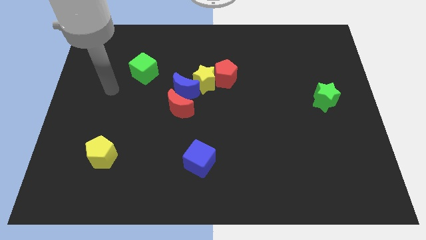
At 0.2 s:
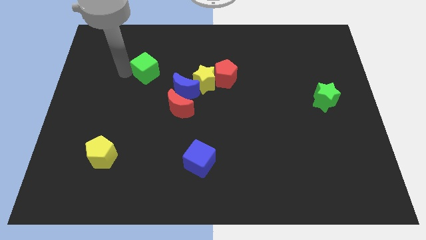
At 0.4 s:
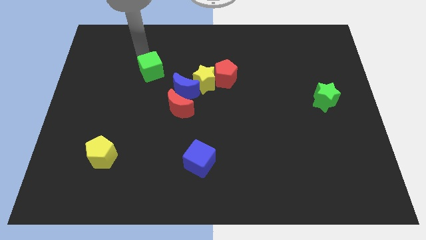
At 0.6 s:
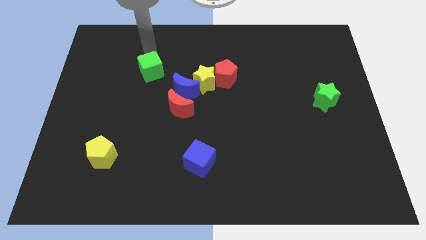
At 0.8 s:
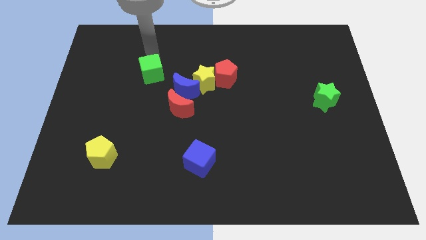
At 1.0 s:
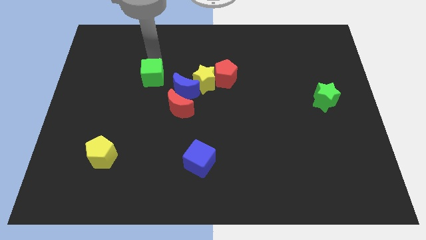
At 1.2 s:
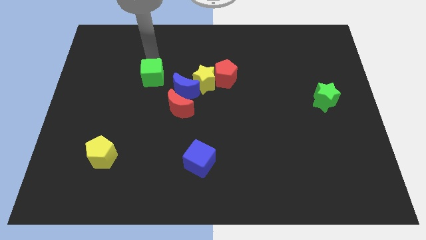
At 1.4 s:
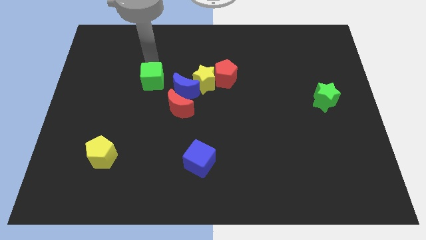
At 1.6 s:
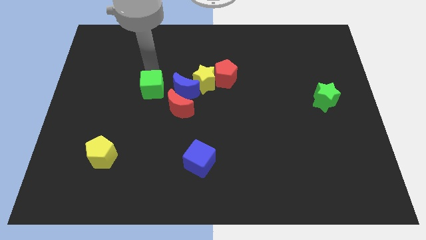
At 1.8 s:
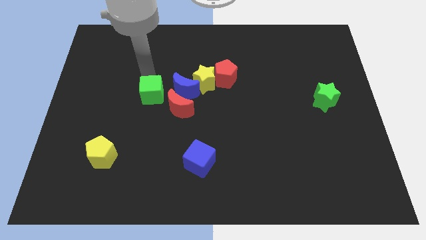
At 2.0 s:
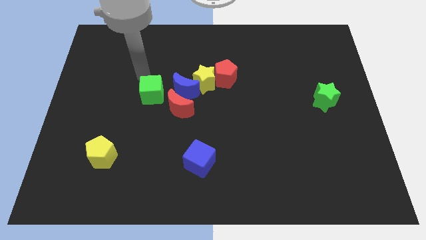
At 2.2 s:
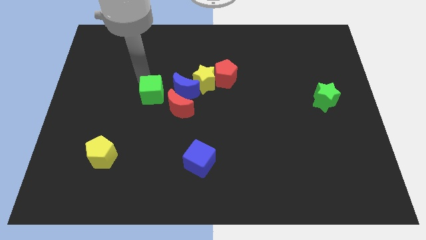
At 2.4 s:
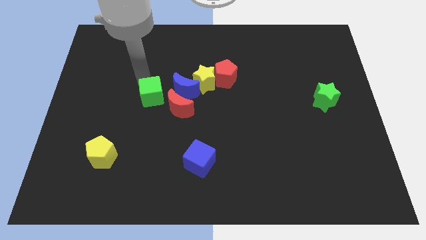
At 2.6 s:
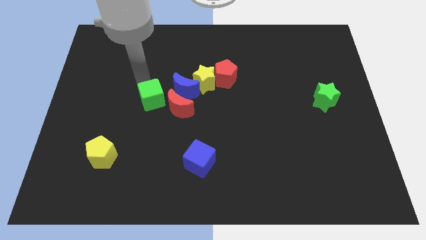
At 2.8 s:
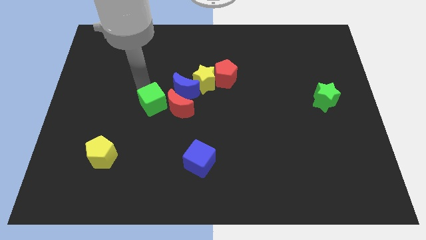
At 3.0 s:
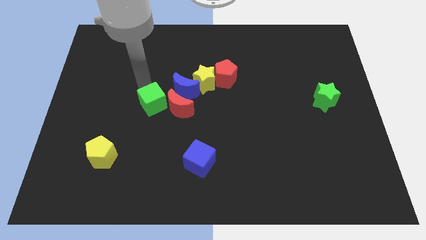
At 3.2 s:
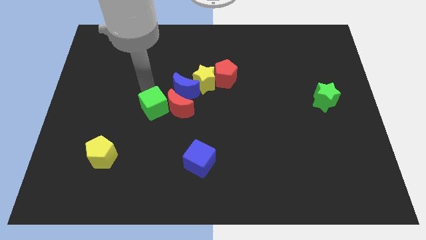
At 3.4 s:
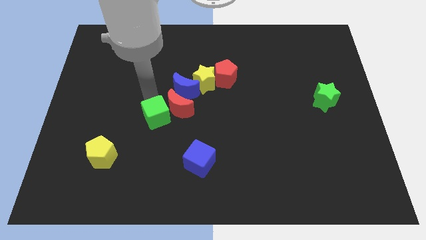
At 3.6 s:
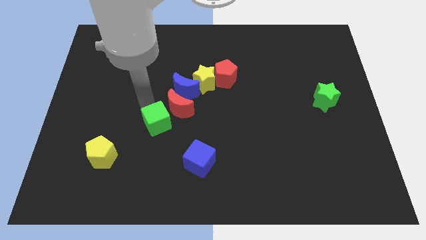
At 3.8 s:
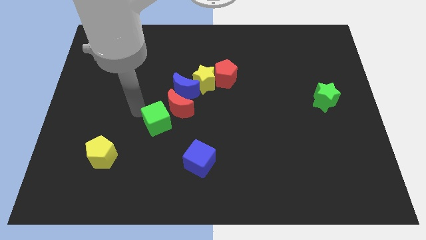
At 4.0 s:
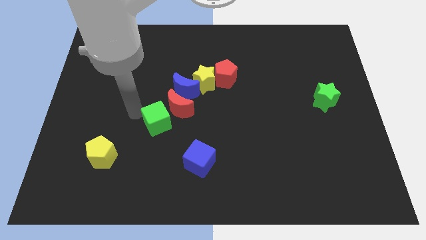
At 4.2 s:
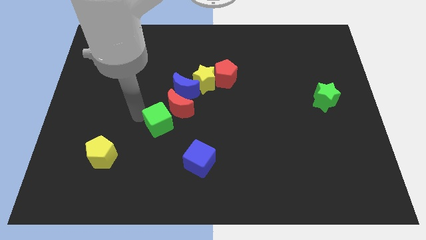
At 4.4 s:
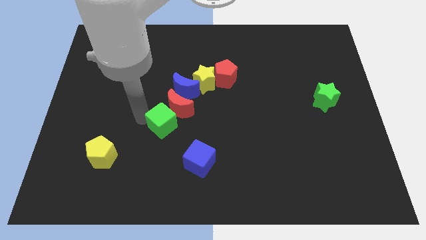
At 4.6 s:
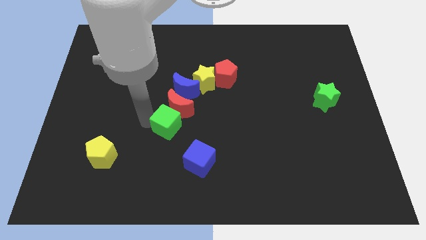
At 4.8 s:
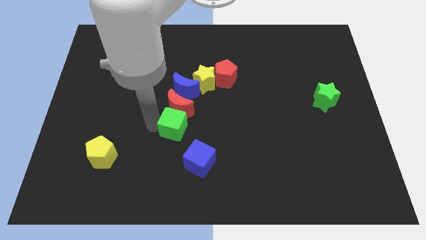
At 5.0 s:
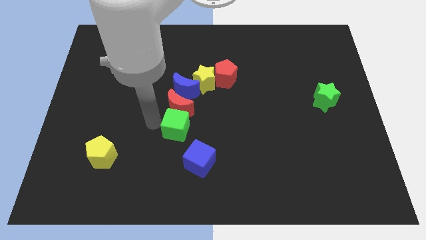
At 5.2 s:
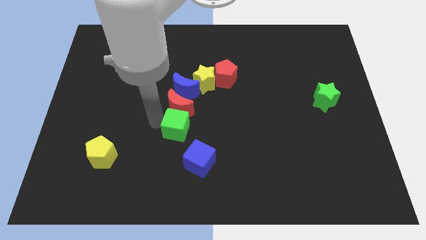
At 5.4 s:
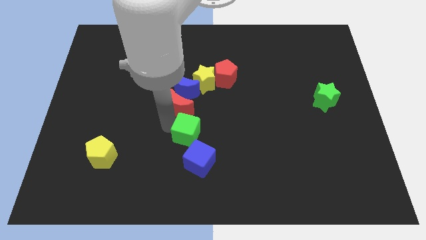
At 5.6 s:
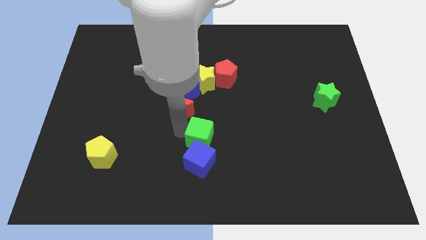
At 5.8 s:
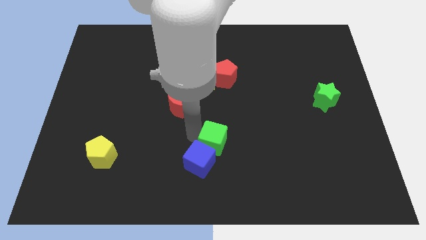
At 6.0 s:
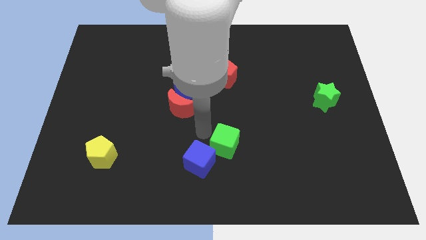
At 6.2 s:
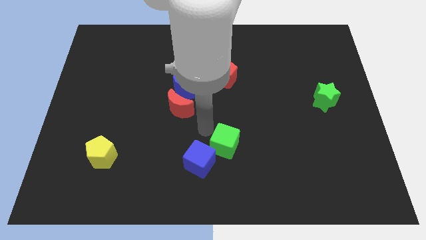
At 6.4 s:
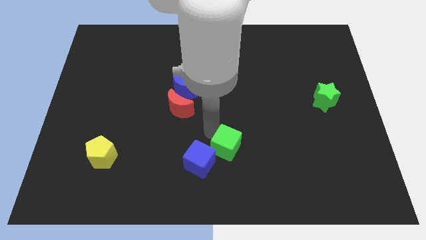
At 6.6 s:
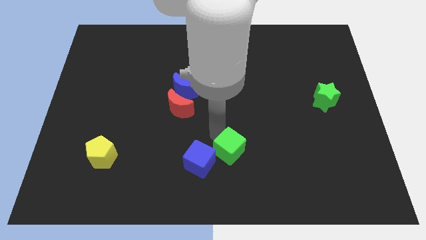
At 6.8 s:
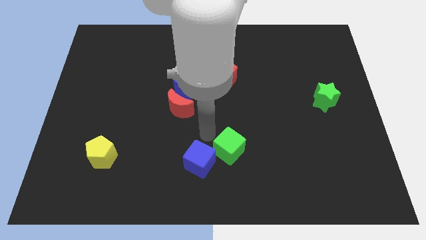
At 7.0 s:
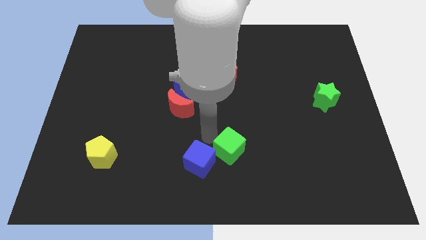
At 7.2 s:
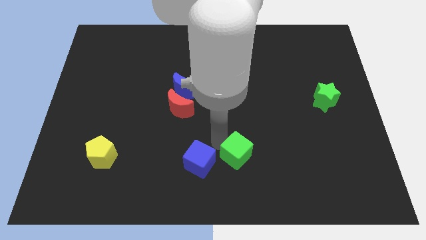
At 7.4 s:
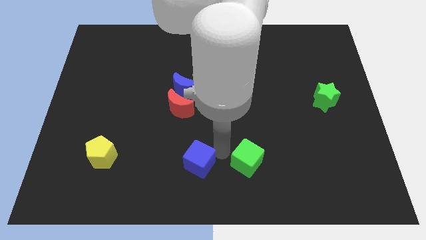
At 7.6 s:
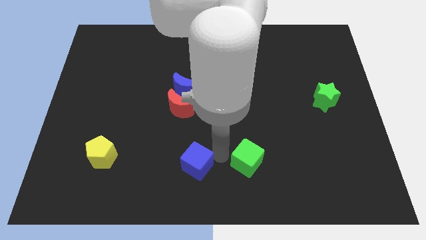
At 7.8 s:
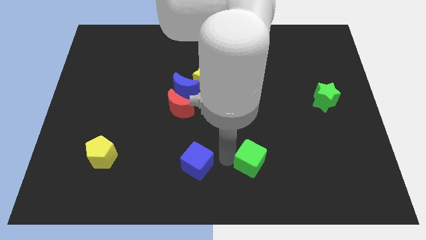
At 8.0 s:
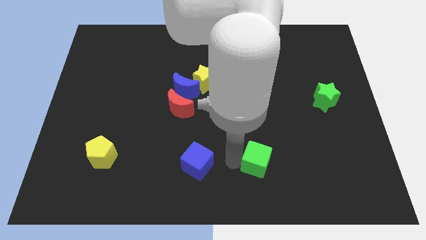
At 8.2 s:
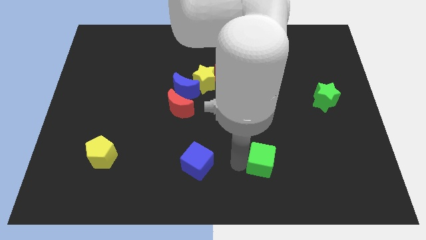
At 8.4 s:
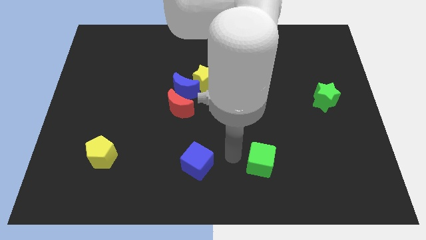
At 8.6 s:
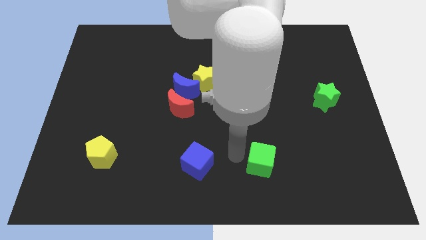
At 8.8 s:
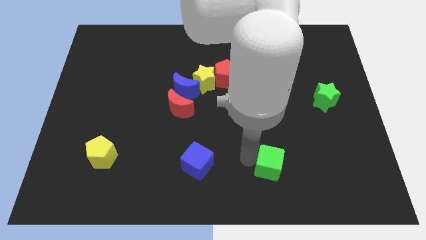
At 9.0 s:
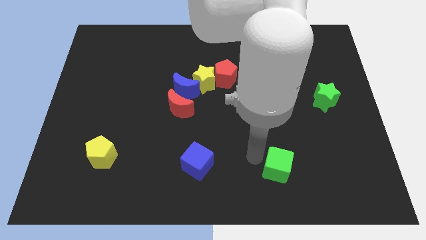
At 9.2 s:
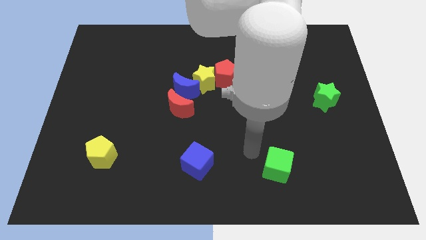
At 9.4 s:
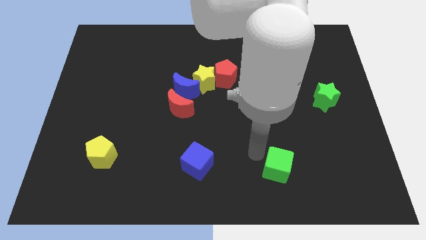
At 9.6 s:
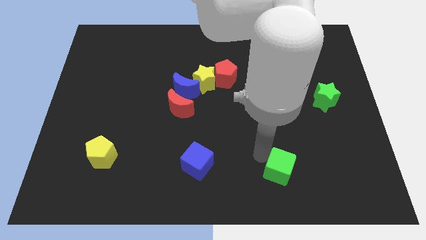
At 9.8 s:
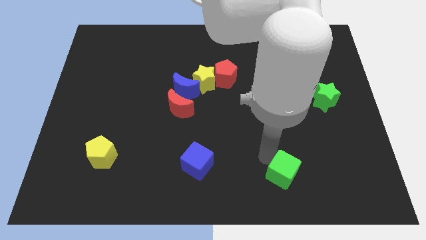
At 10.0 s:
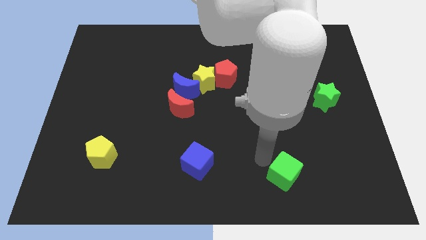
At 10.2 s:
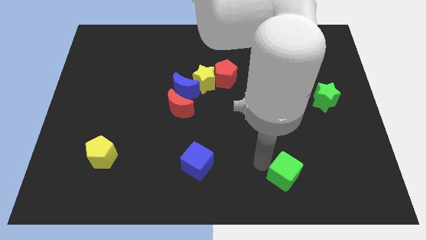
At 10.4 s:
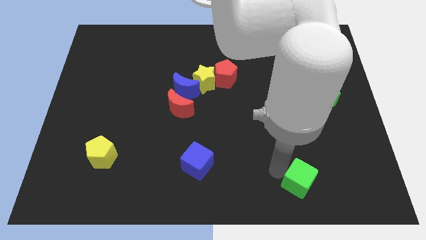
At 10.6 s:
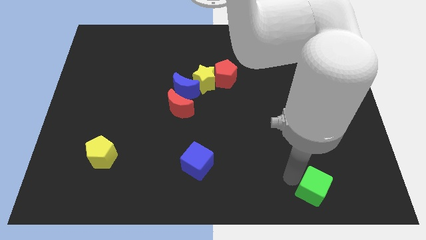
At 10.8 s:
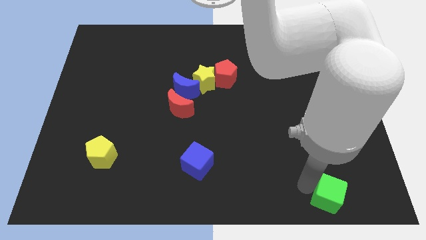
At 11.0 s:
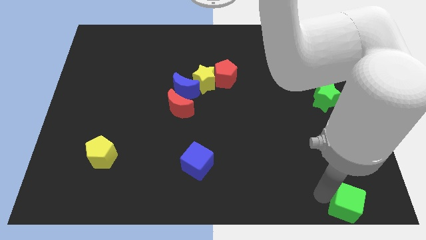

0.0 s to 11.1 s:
push the green cube to the bottom right corner

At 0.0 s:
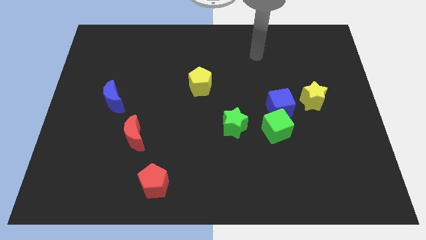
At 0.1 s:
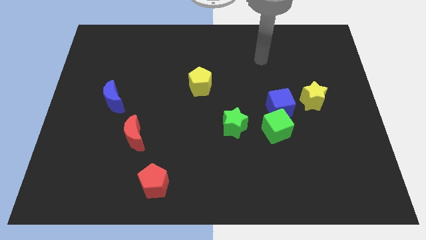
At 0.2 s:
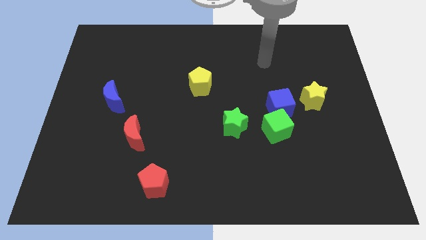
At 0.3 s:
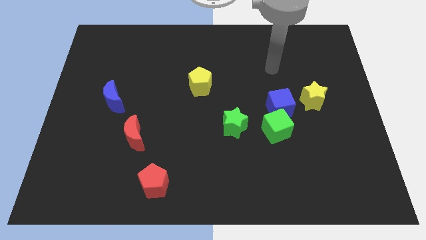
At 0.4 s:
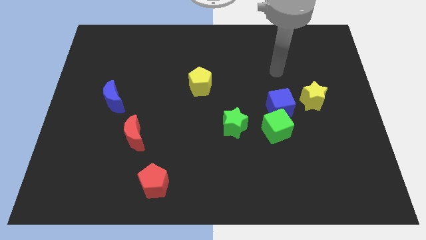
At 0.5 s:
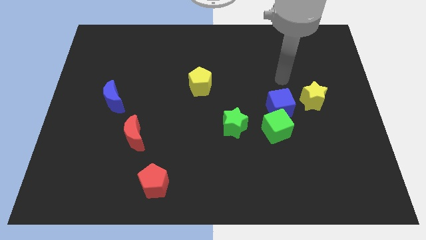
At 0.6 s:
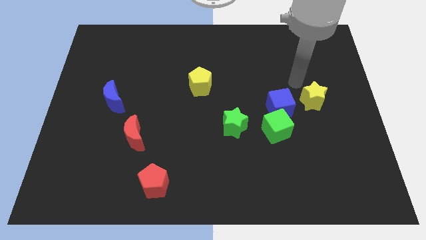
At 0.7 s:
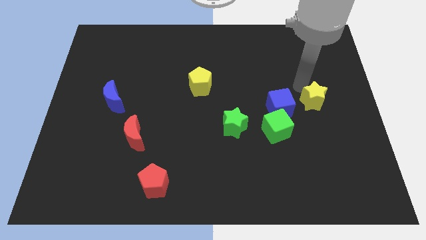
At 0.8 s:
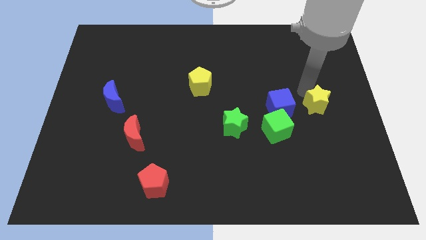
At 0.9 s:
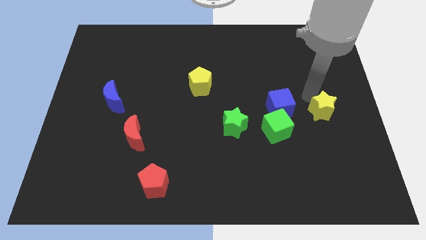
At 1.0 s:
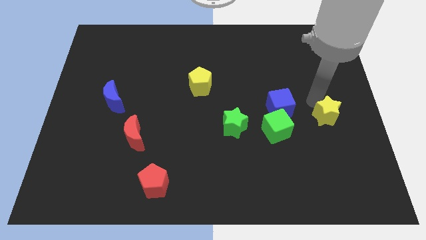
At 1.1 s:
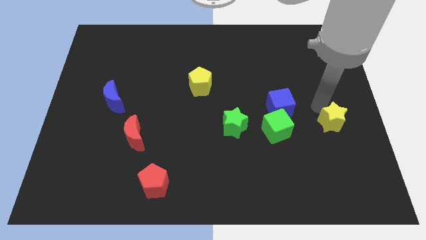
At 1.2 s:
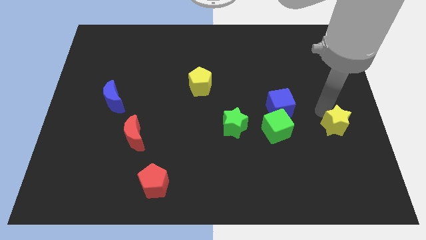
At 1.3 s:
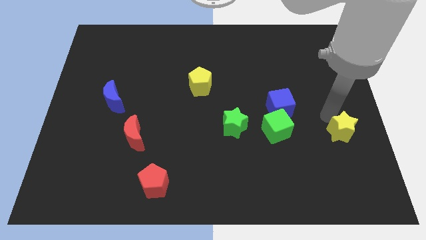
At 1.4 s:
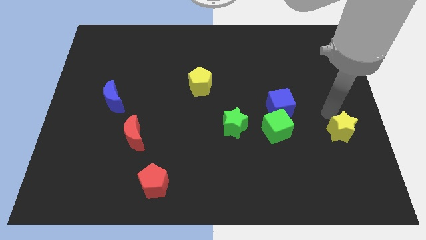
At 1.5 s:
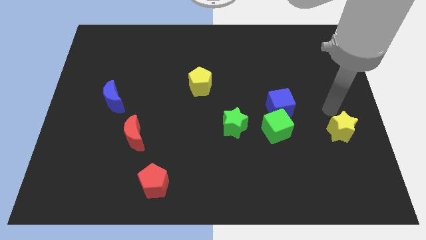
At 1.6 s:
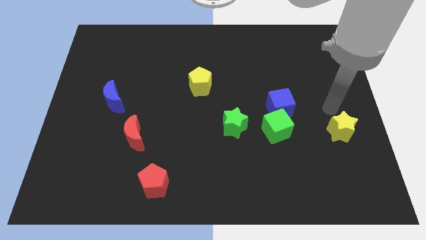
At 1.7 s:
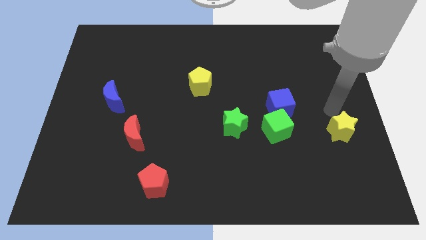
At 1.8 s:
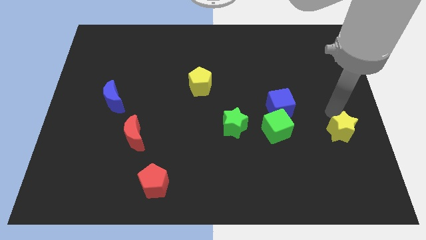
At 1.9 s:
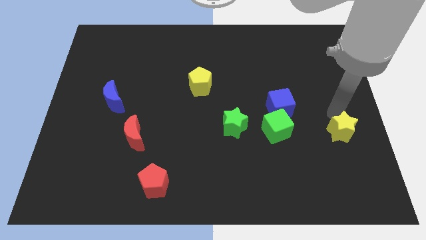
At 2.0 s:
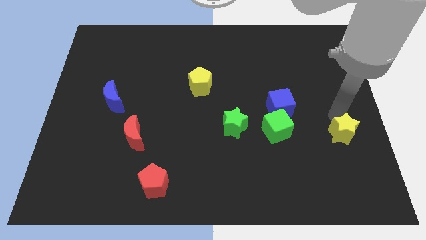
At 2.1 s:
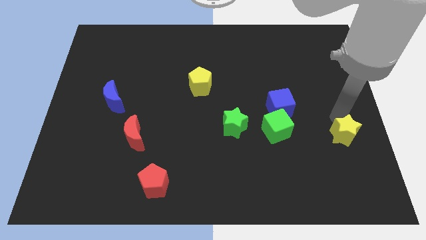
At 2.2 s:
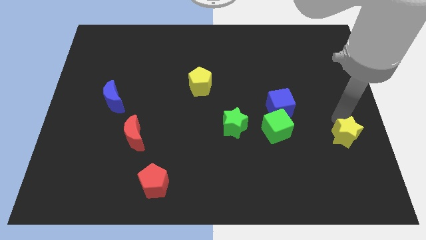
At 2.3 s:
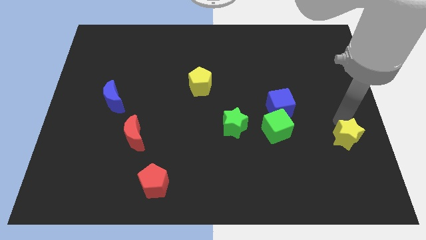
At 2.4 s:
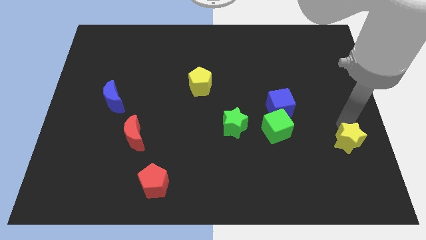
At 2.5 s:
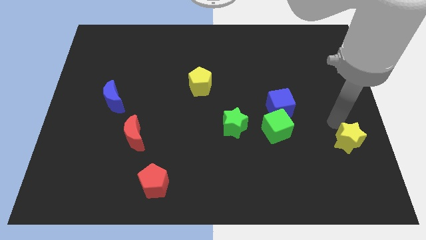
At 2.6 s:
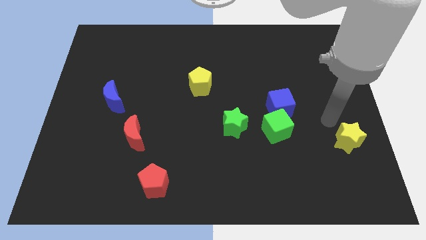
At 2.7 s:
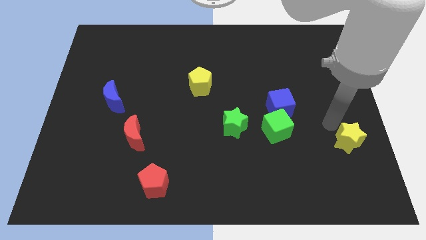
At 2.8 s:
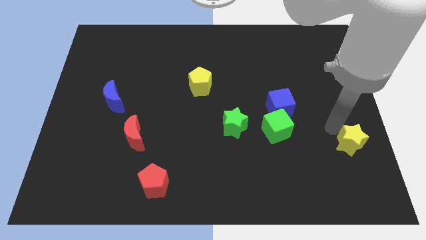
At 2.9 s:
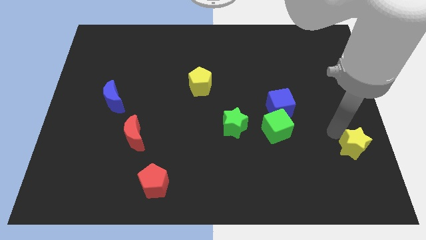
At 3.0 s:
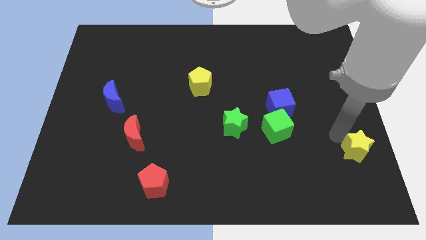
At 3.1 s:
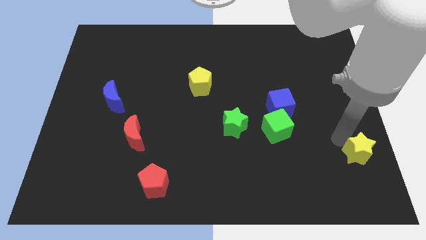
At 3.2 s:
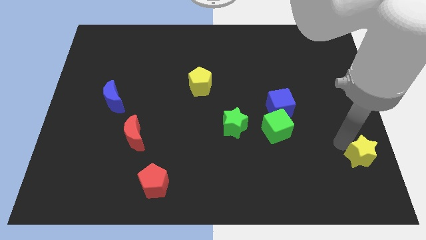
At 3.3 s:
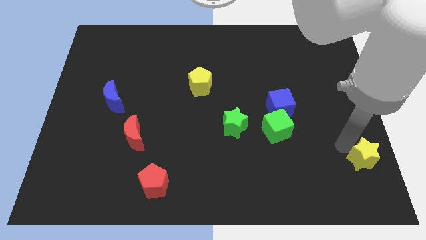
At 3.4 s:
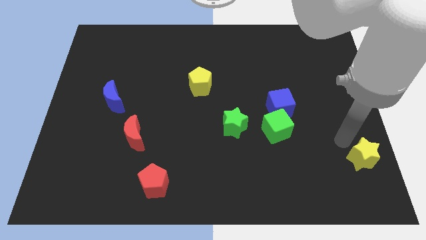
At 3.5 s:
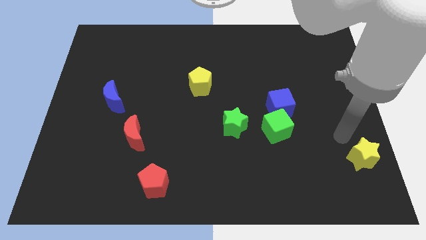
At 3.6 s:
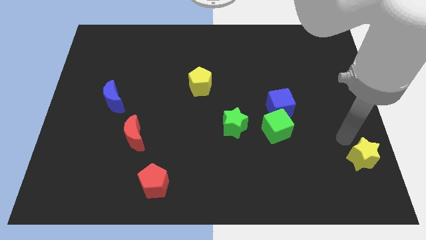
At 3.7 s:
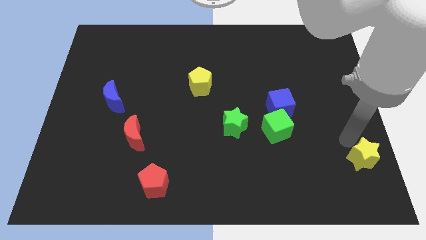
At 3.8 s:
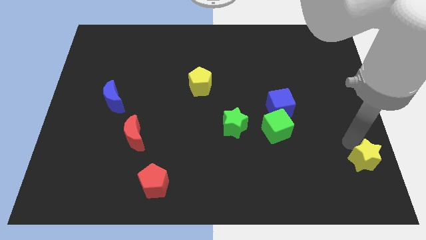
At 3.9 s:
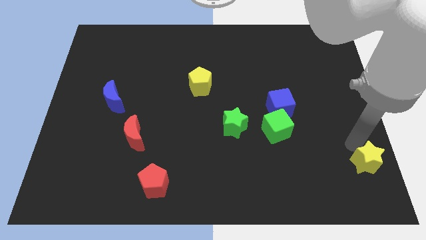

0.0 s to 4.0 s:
push the yellow star to the bottom right corner
